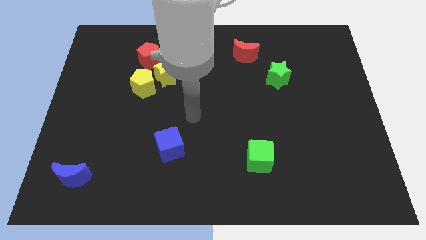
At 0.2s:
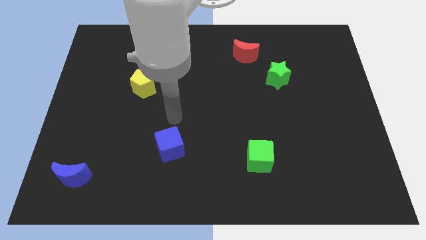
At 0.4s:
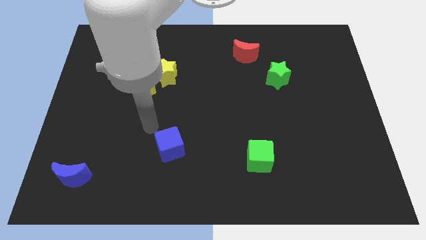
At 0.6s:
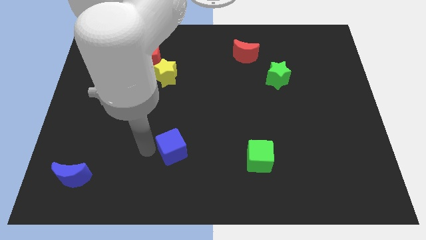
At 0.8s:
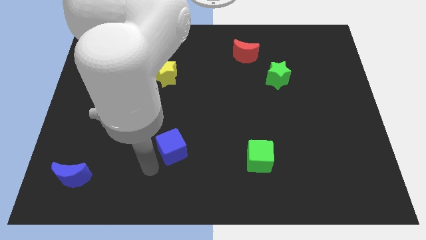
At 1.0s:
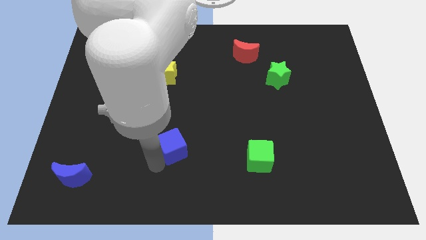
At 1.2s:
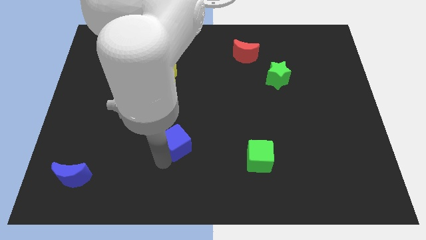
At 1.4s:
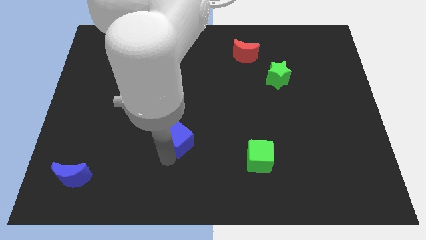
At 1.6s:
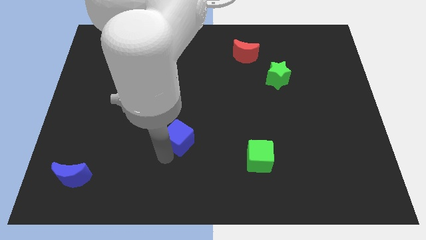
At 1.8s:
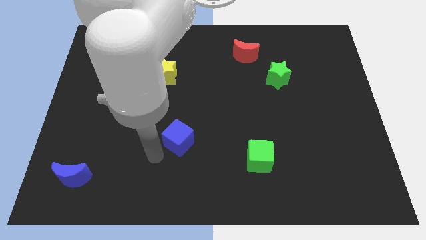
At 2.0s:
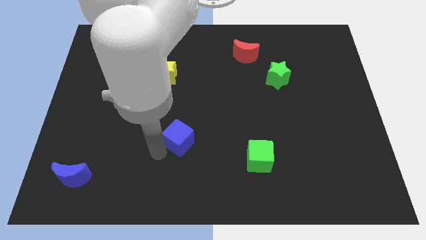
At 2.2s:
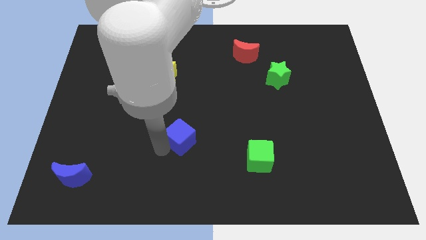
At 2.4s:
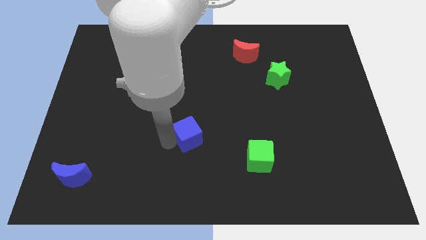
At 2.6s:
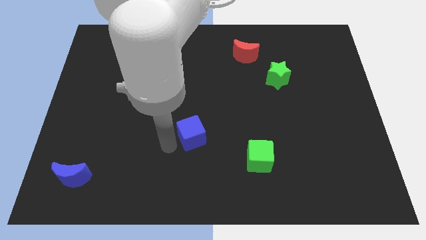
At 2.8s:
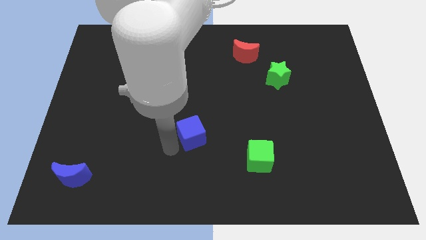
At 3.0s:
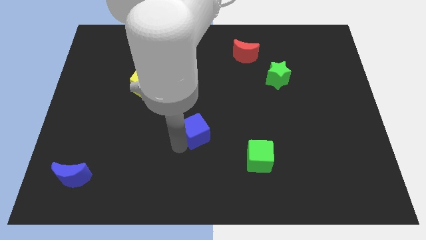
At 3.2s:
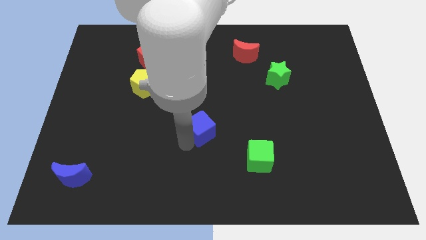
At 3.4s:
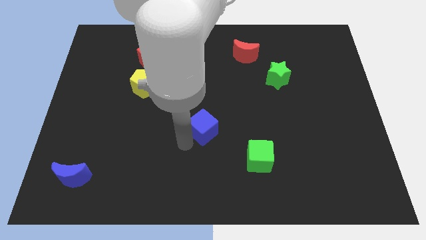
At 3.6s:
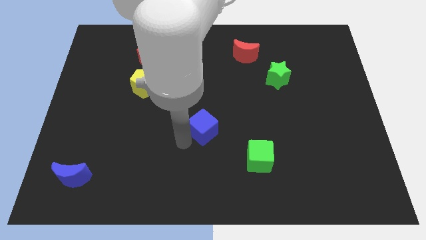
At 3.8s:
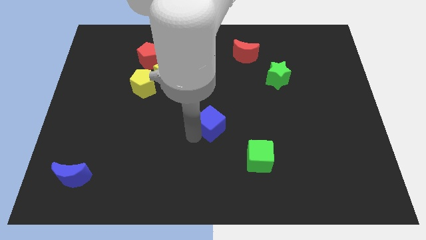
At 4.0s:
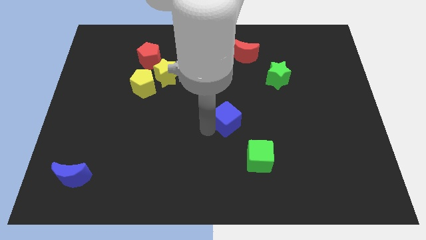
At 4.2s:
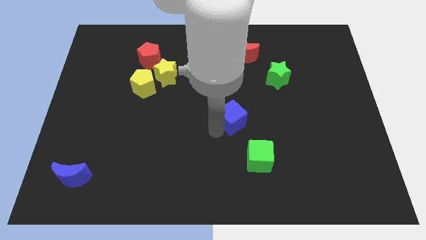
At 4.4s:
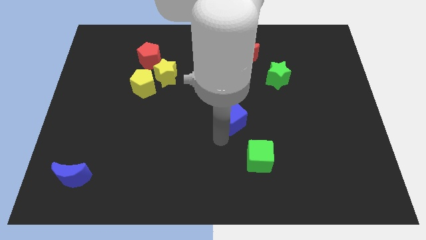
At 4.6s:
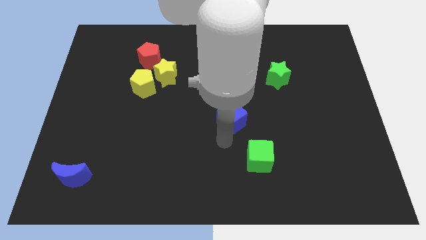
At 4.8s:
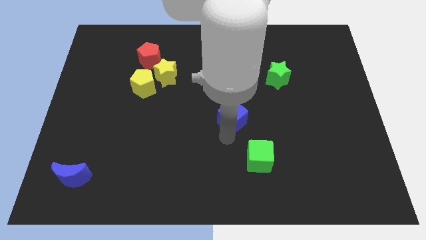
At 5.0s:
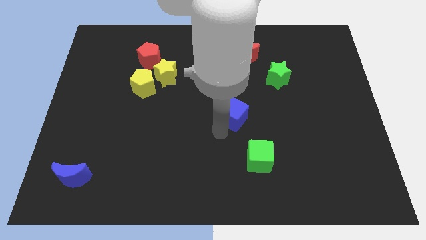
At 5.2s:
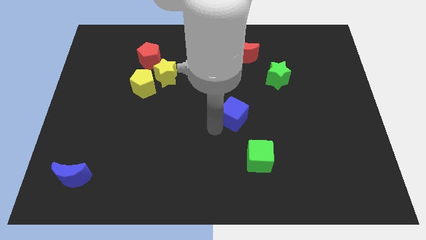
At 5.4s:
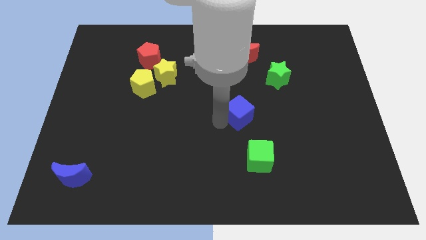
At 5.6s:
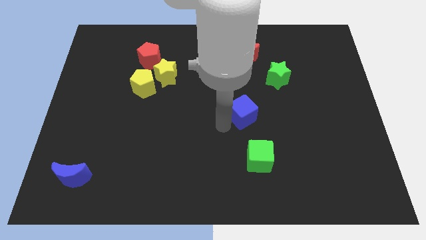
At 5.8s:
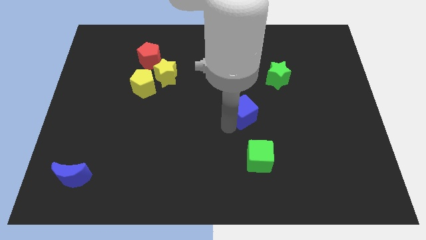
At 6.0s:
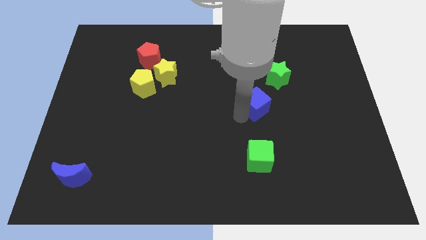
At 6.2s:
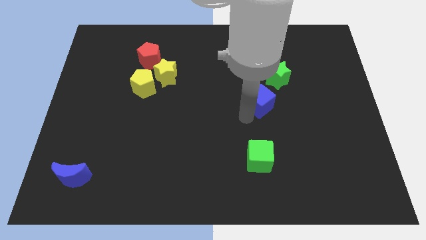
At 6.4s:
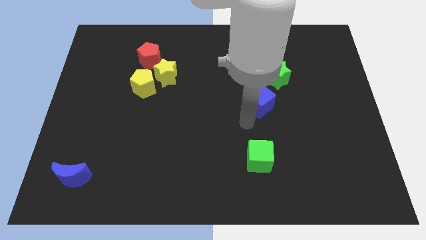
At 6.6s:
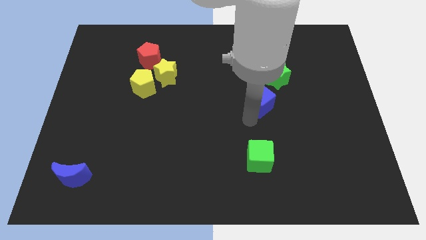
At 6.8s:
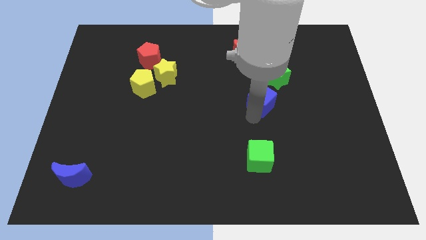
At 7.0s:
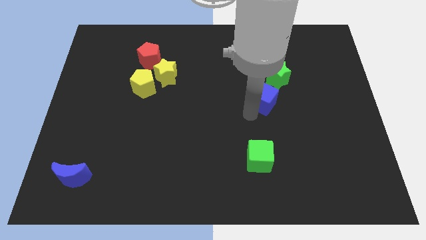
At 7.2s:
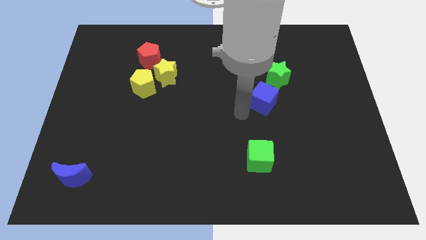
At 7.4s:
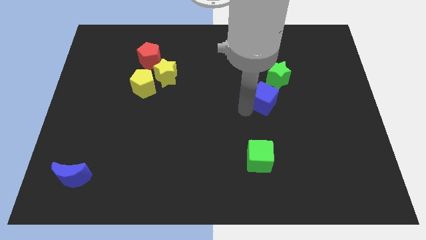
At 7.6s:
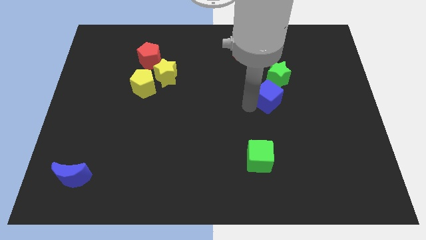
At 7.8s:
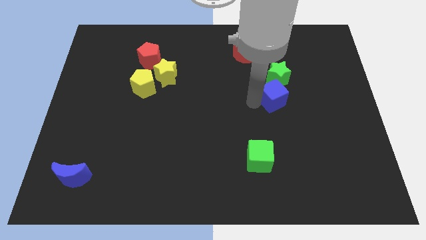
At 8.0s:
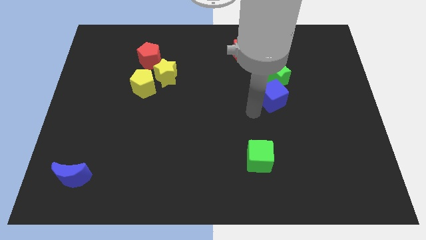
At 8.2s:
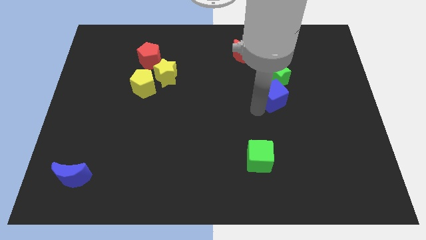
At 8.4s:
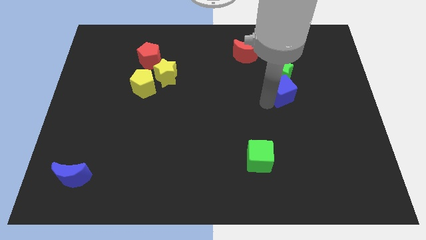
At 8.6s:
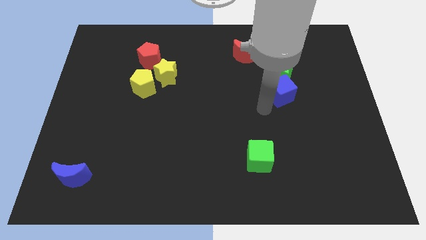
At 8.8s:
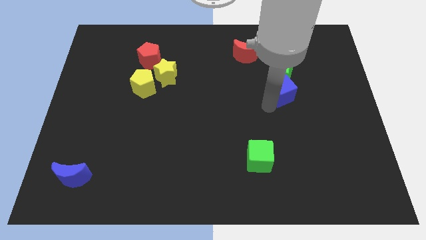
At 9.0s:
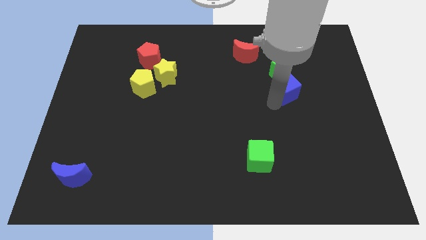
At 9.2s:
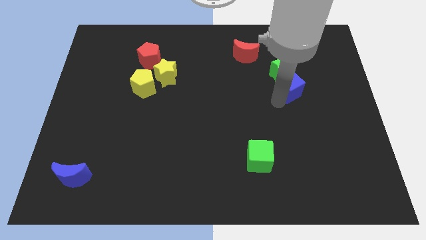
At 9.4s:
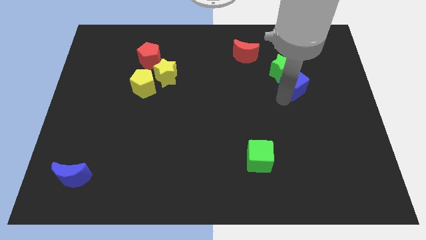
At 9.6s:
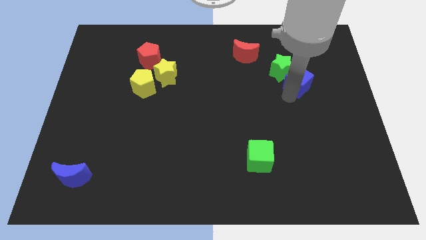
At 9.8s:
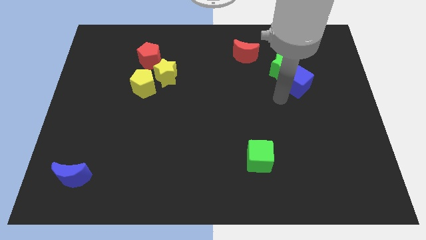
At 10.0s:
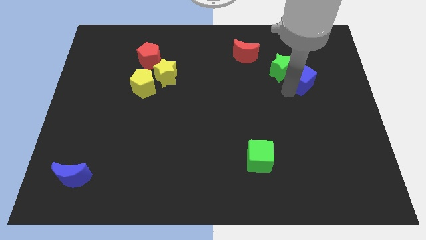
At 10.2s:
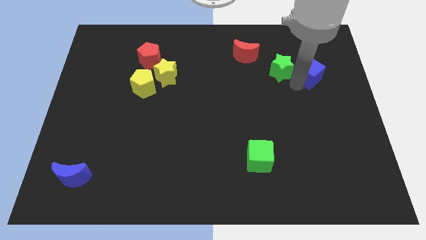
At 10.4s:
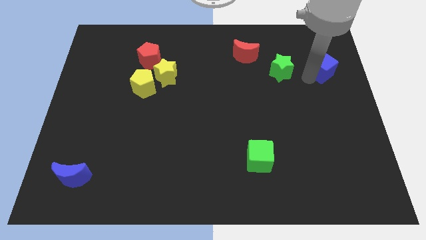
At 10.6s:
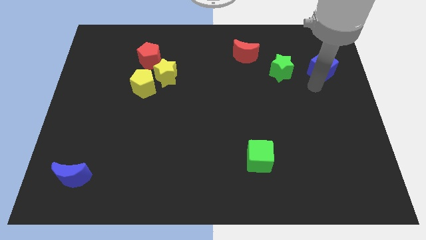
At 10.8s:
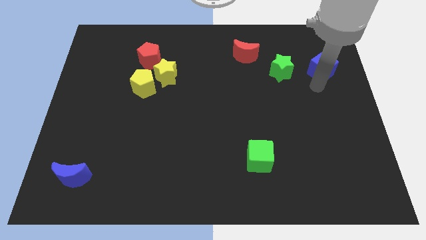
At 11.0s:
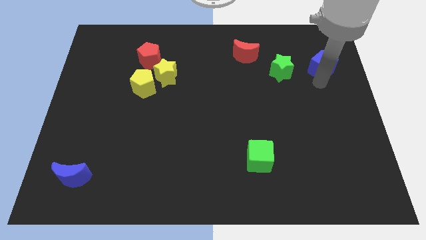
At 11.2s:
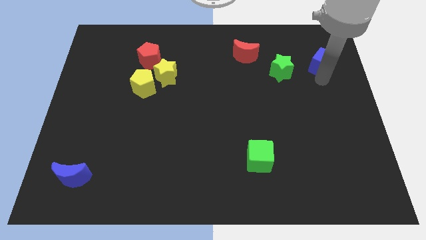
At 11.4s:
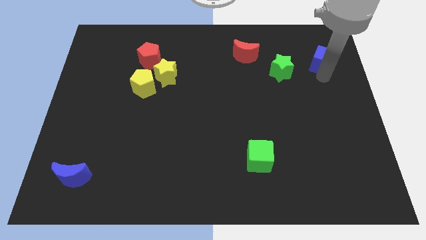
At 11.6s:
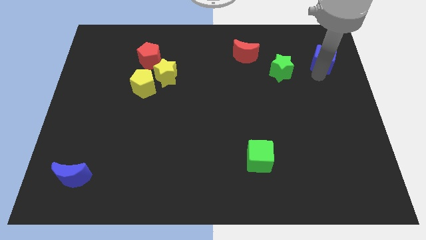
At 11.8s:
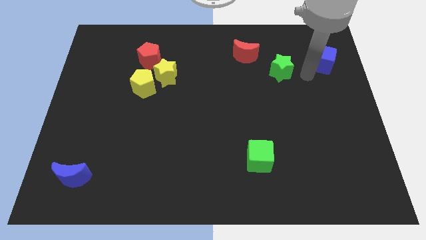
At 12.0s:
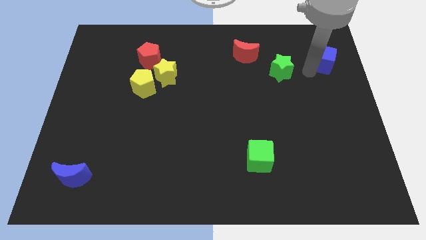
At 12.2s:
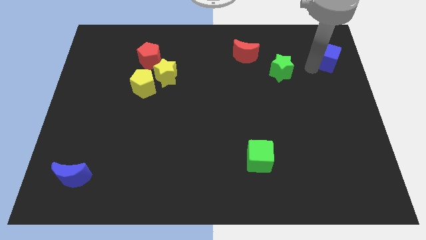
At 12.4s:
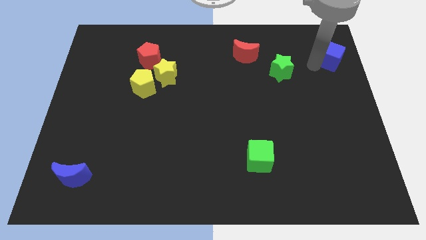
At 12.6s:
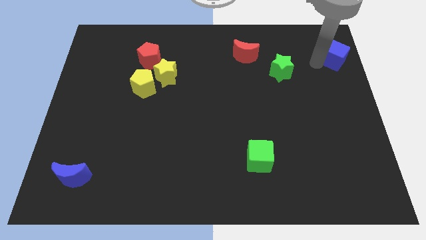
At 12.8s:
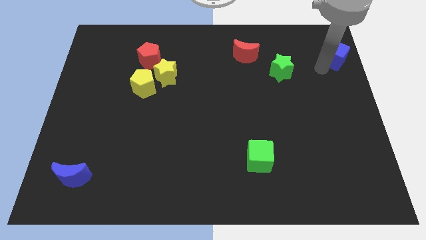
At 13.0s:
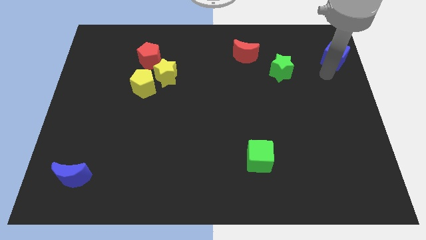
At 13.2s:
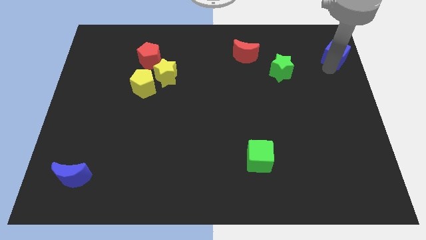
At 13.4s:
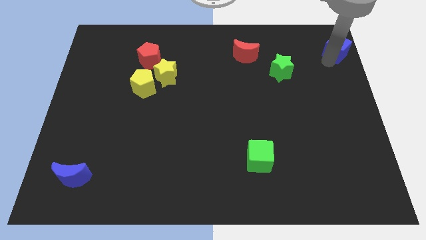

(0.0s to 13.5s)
put the blue cube to the top right corner
